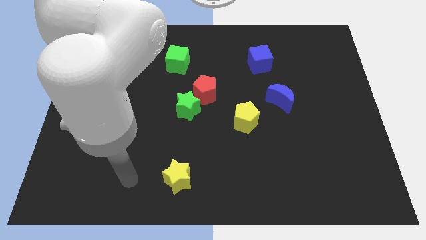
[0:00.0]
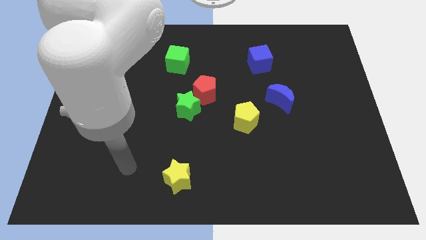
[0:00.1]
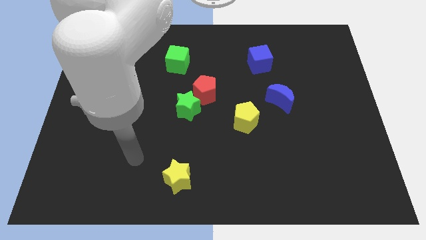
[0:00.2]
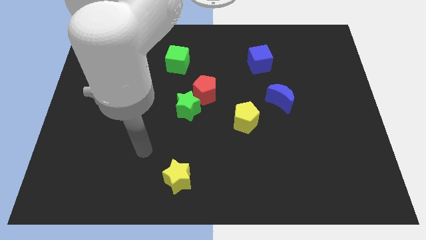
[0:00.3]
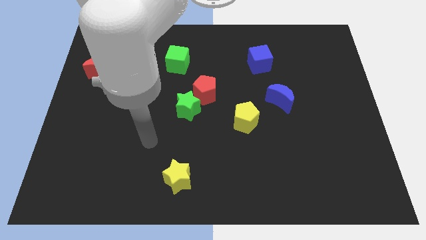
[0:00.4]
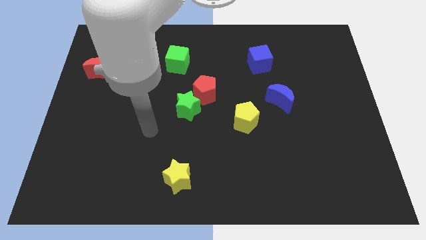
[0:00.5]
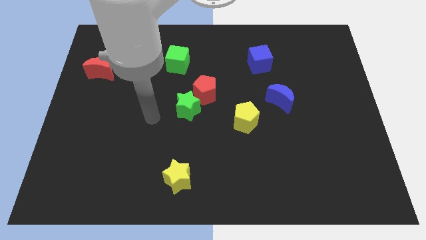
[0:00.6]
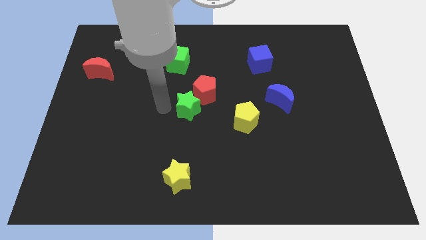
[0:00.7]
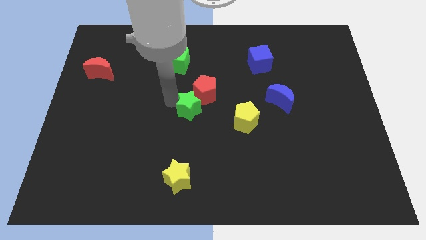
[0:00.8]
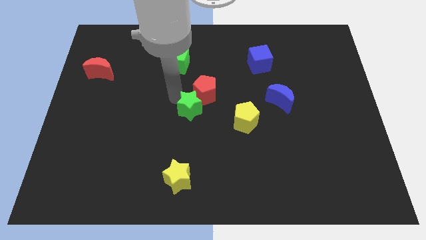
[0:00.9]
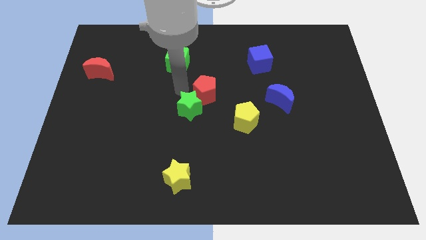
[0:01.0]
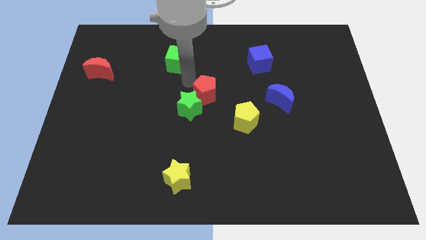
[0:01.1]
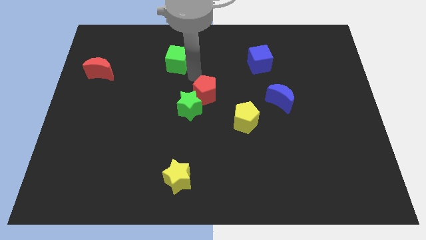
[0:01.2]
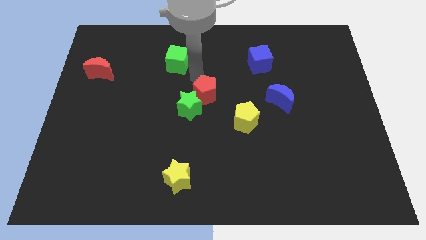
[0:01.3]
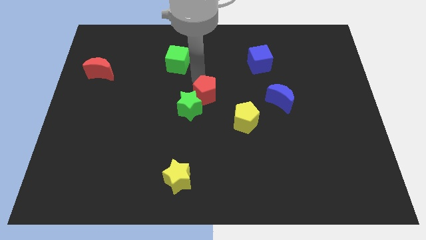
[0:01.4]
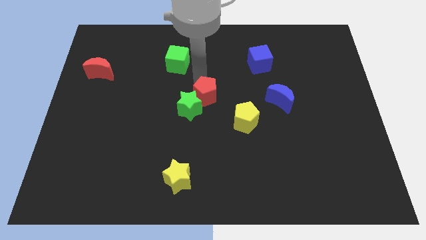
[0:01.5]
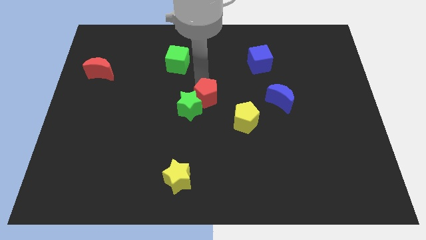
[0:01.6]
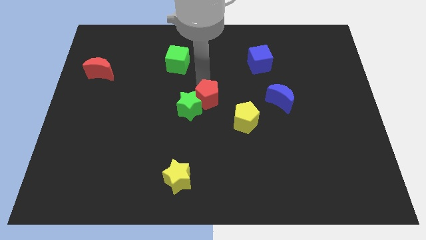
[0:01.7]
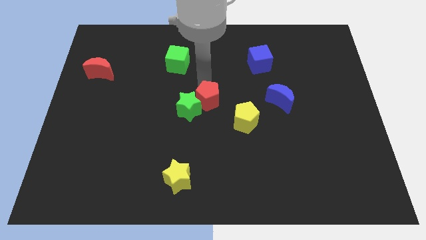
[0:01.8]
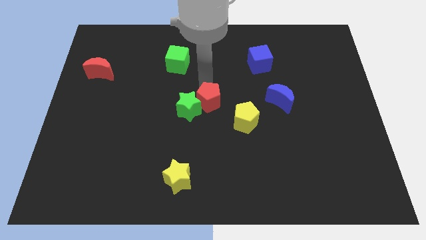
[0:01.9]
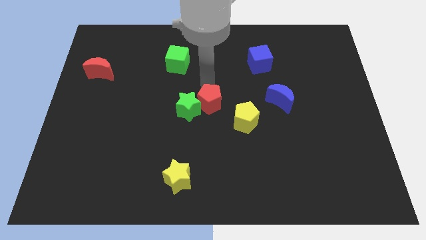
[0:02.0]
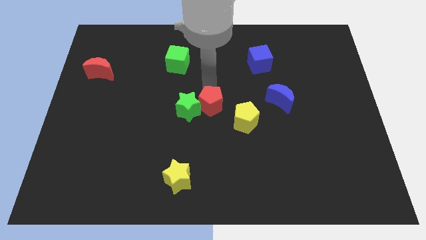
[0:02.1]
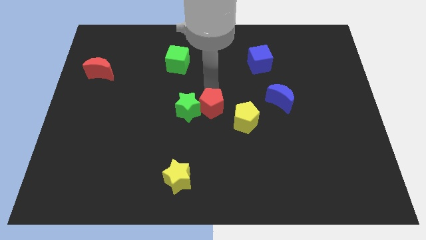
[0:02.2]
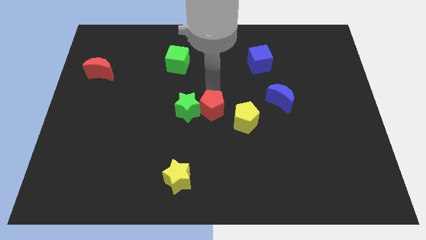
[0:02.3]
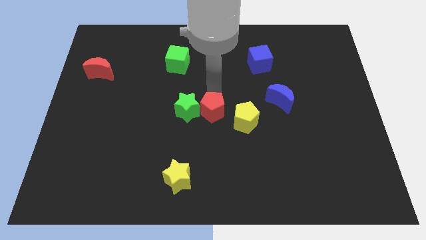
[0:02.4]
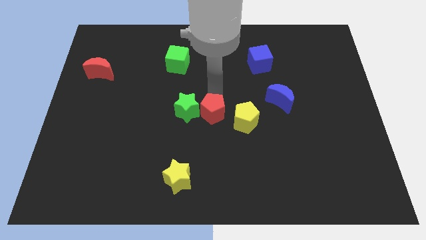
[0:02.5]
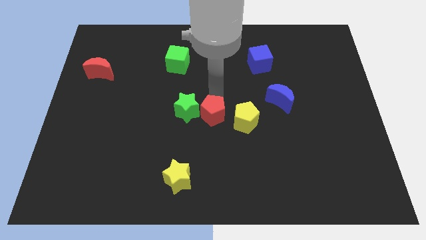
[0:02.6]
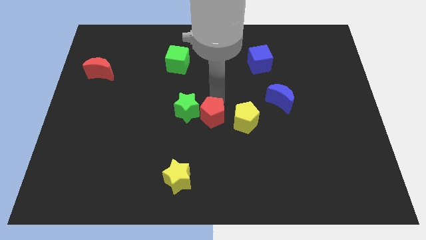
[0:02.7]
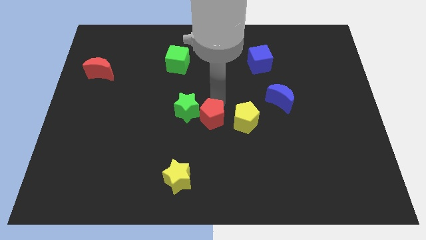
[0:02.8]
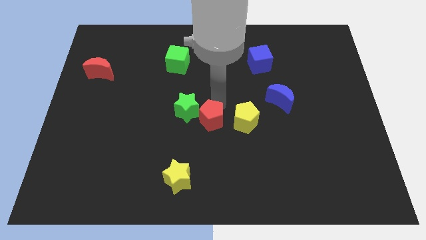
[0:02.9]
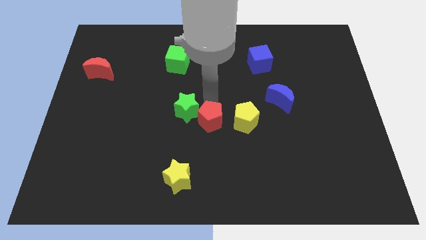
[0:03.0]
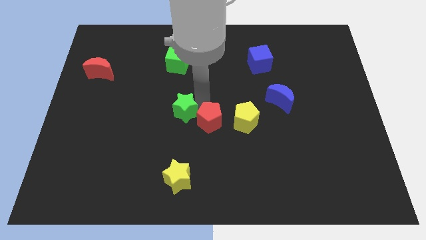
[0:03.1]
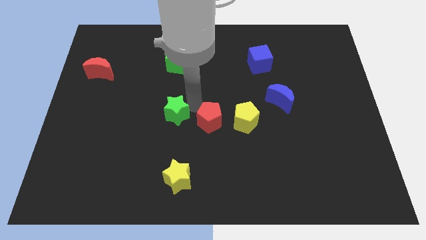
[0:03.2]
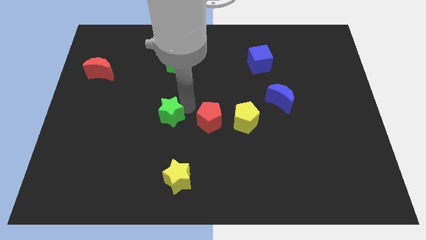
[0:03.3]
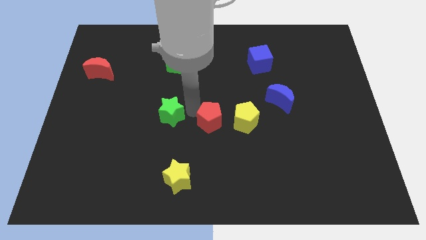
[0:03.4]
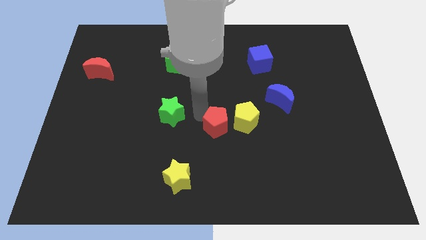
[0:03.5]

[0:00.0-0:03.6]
push the red pentagon down and right a little bit

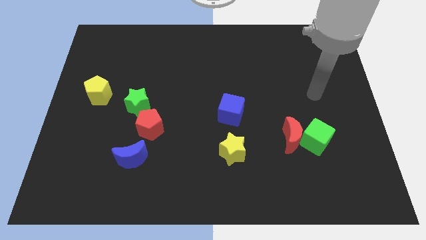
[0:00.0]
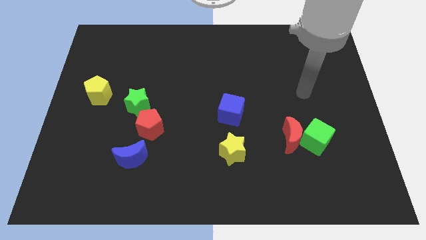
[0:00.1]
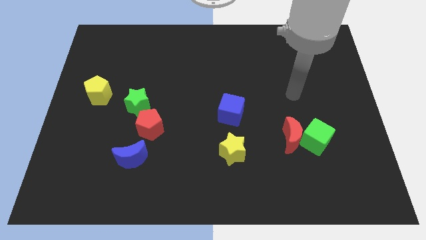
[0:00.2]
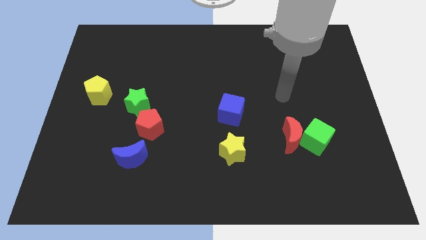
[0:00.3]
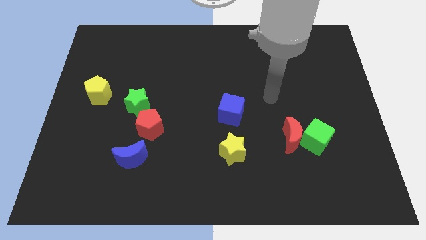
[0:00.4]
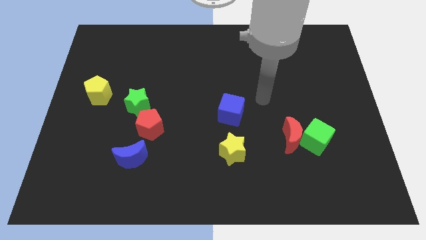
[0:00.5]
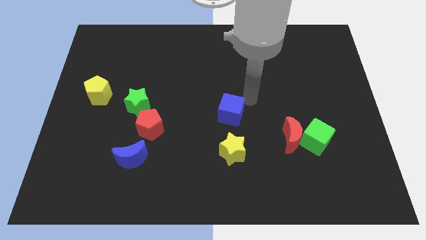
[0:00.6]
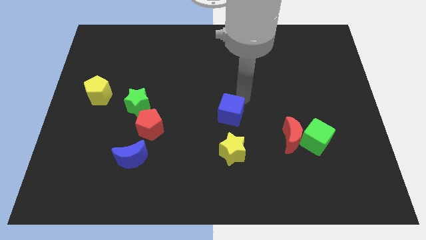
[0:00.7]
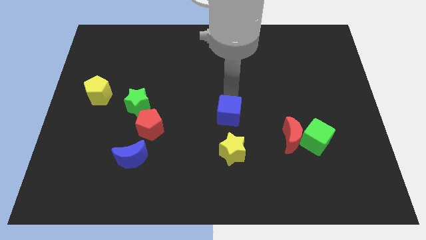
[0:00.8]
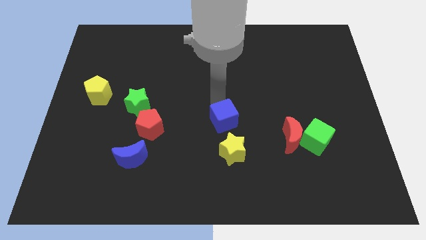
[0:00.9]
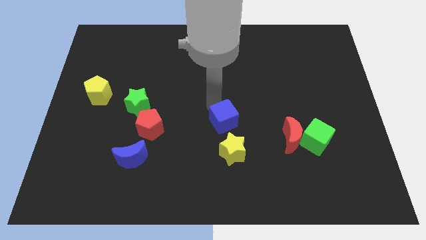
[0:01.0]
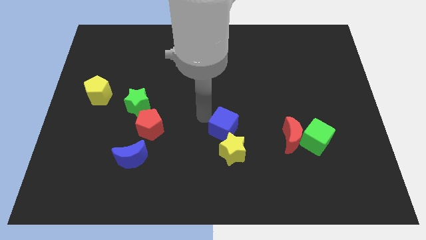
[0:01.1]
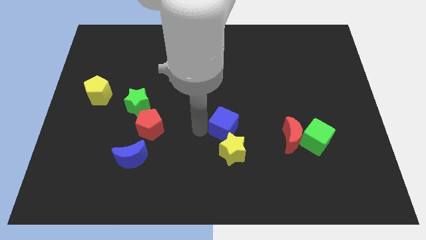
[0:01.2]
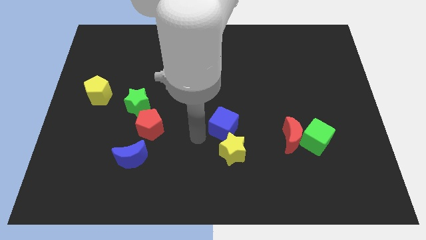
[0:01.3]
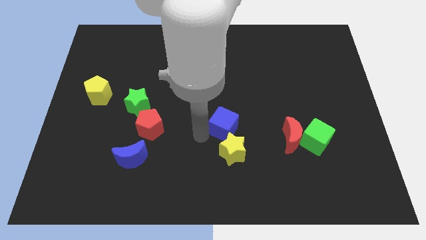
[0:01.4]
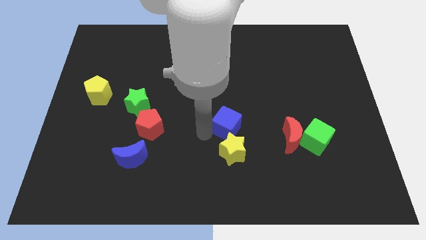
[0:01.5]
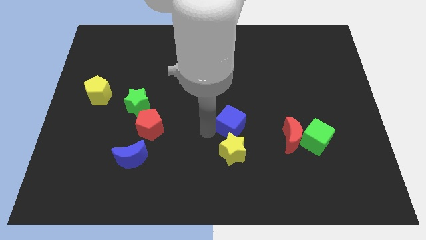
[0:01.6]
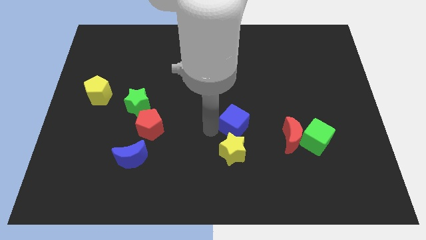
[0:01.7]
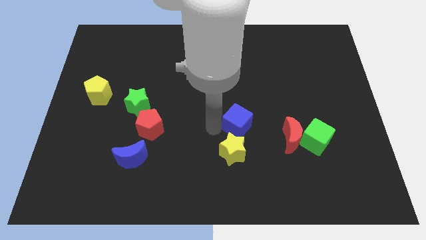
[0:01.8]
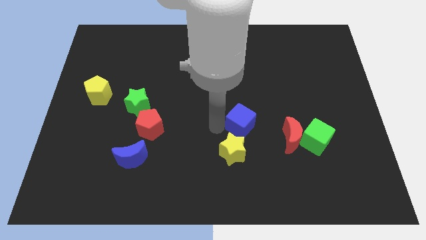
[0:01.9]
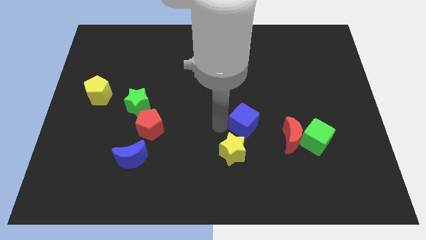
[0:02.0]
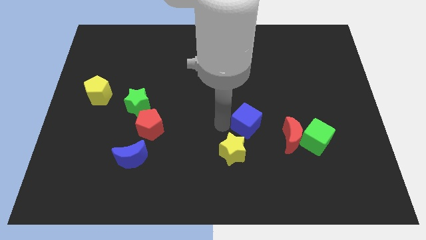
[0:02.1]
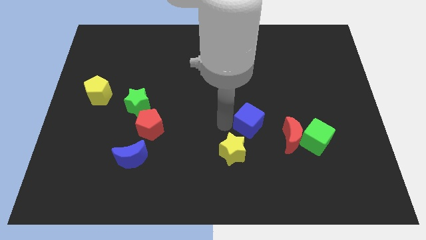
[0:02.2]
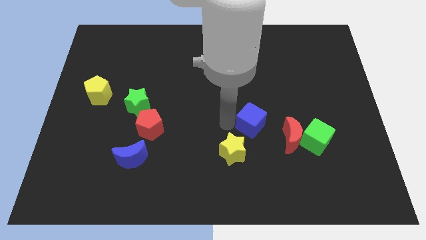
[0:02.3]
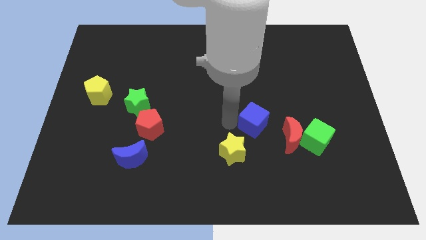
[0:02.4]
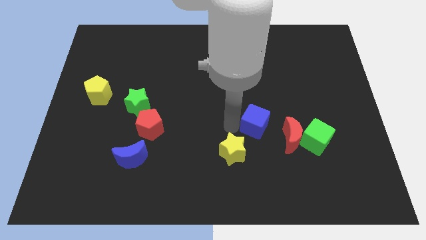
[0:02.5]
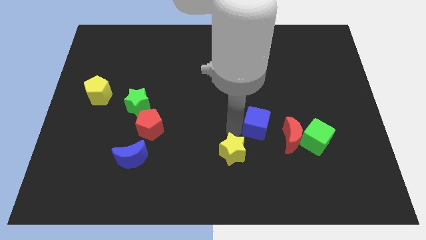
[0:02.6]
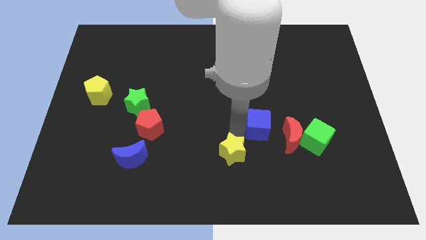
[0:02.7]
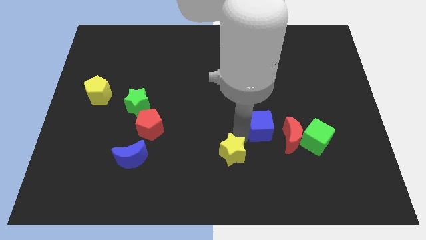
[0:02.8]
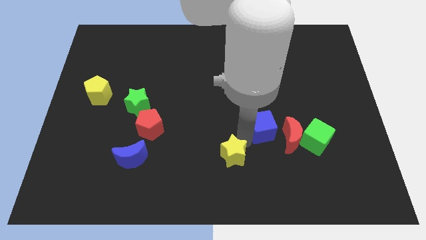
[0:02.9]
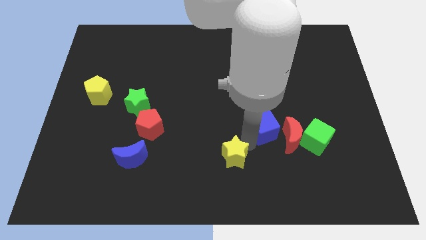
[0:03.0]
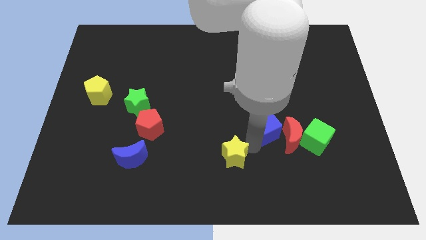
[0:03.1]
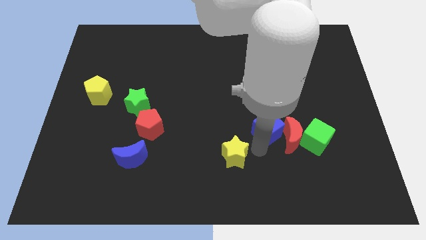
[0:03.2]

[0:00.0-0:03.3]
push the blue cube to the right slightly

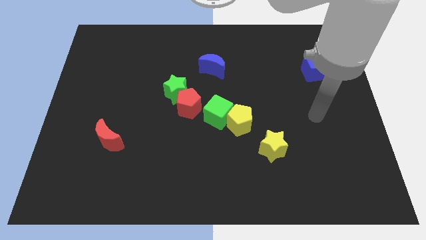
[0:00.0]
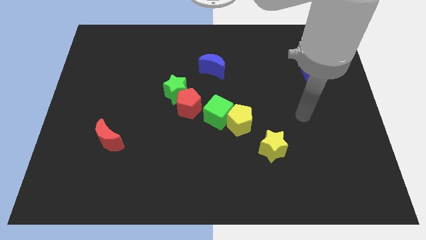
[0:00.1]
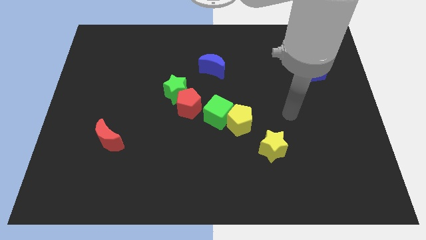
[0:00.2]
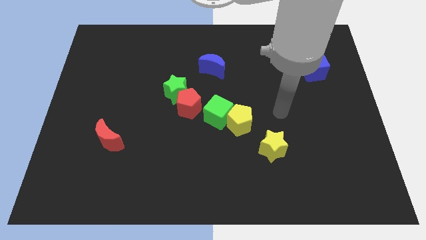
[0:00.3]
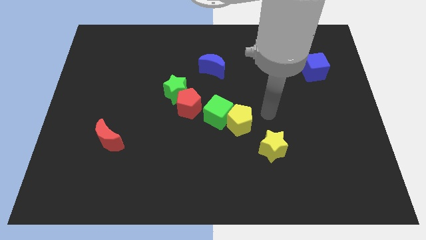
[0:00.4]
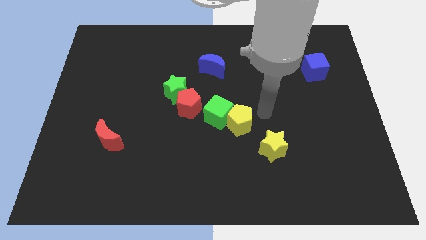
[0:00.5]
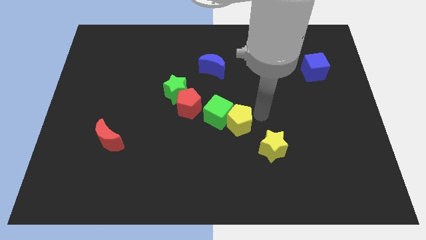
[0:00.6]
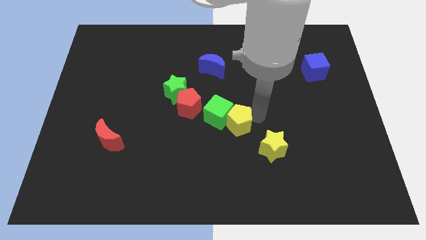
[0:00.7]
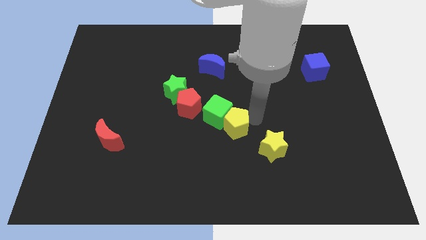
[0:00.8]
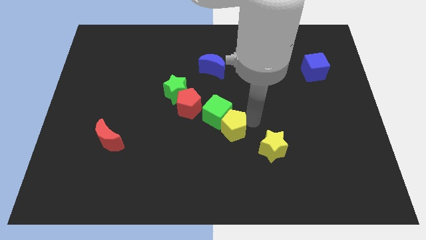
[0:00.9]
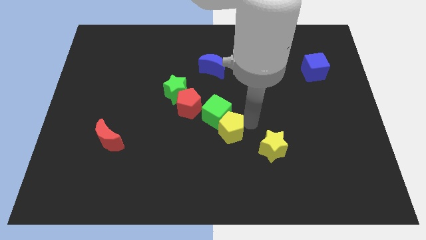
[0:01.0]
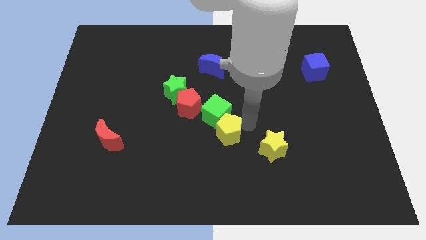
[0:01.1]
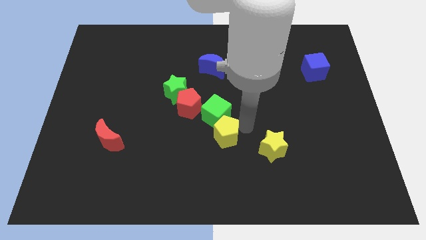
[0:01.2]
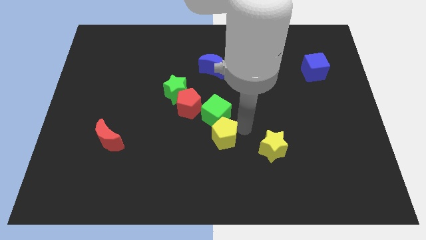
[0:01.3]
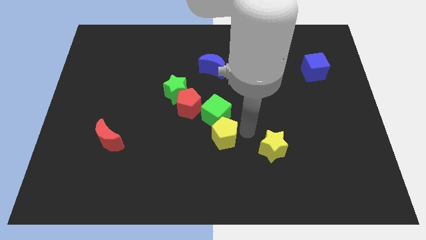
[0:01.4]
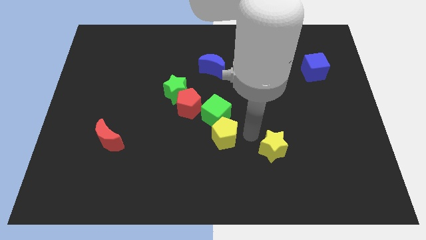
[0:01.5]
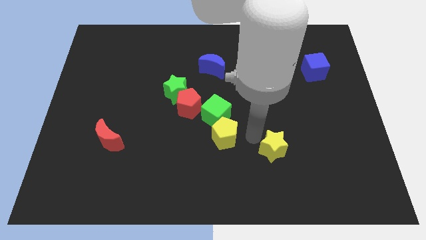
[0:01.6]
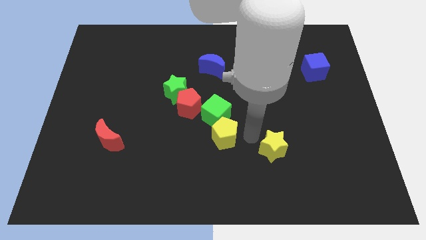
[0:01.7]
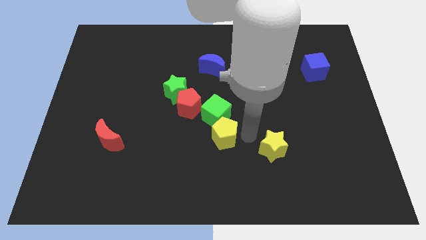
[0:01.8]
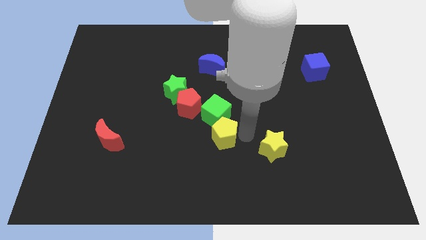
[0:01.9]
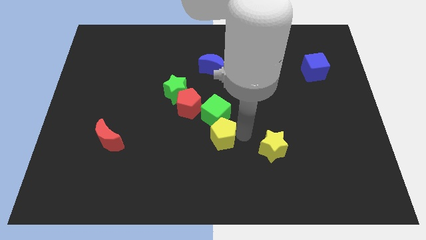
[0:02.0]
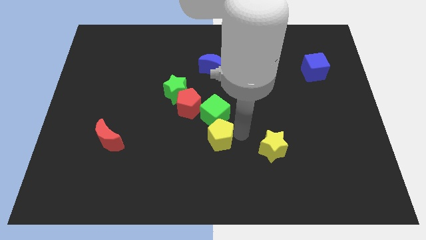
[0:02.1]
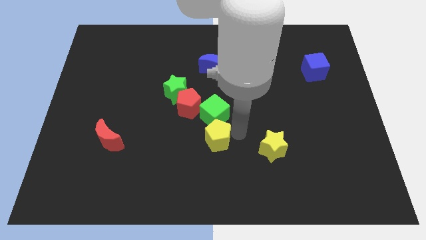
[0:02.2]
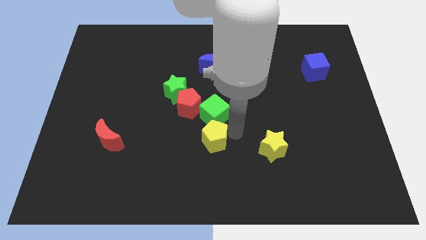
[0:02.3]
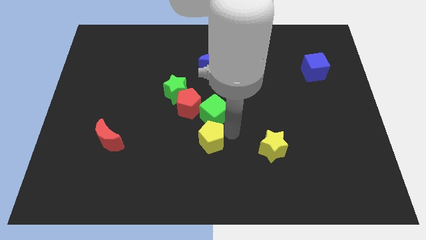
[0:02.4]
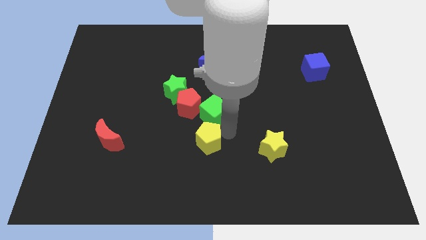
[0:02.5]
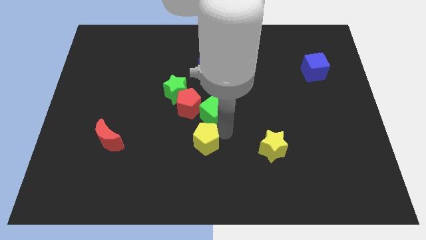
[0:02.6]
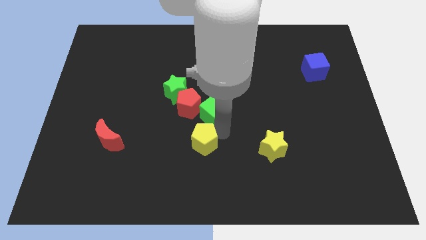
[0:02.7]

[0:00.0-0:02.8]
push the yellow pentagon a little to the left
